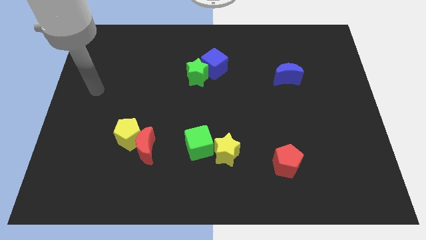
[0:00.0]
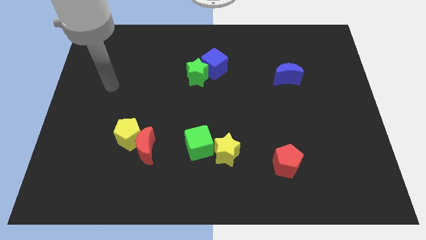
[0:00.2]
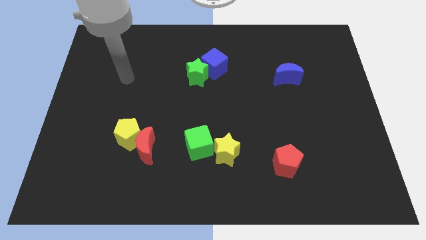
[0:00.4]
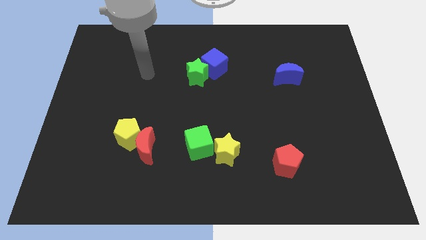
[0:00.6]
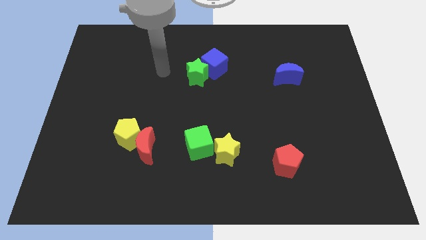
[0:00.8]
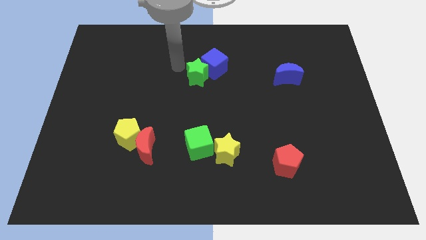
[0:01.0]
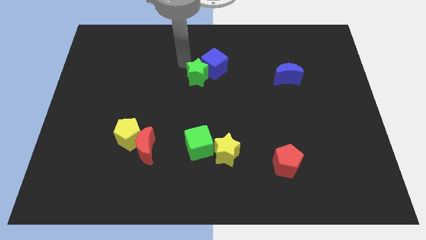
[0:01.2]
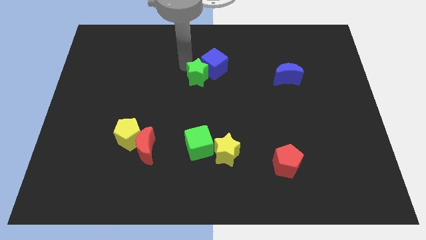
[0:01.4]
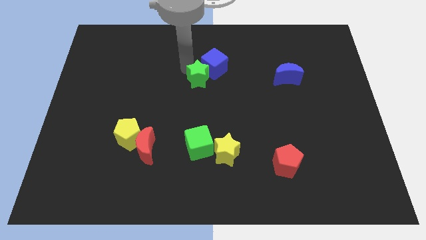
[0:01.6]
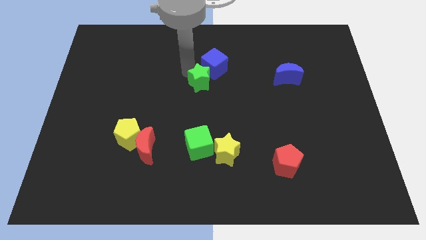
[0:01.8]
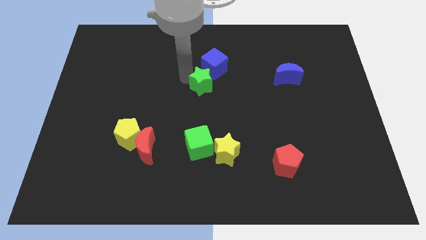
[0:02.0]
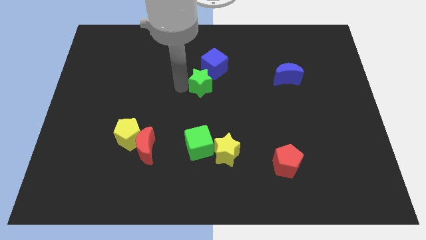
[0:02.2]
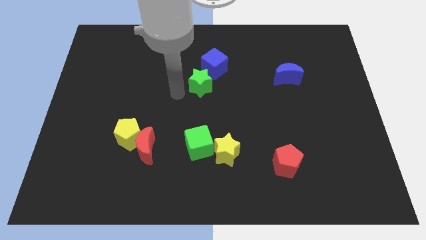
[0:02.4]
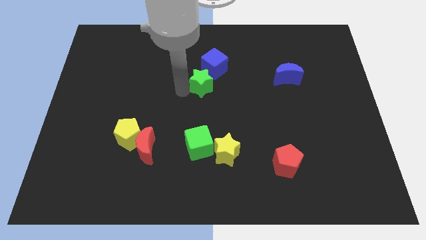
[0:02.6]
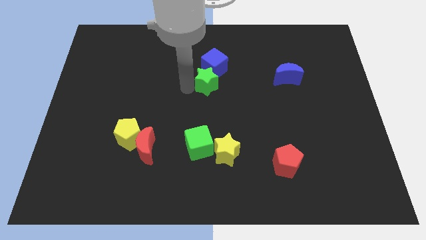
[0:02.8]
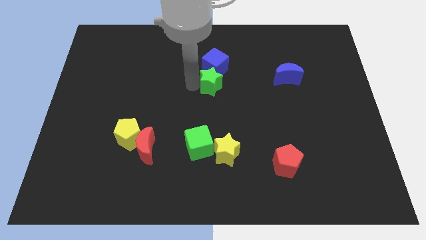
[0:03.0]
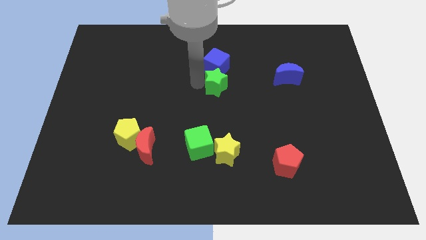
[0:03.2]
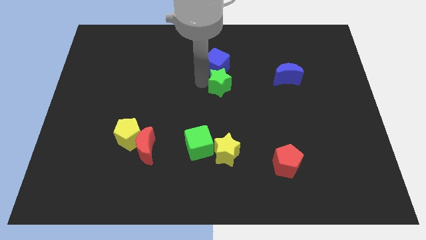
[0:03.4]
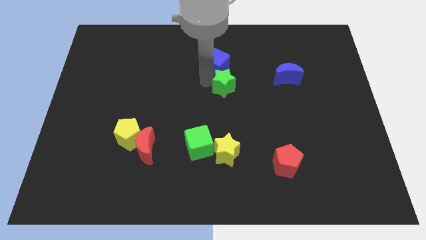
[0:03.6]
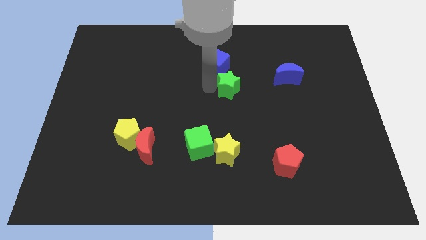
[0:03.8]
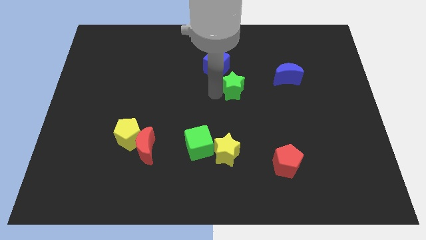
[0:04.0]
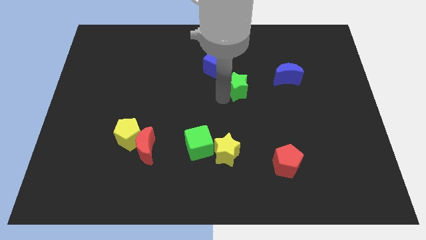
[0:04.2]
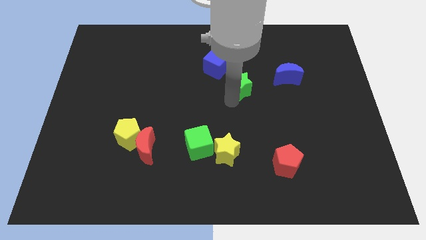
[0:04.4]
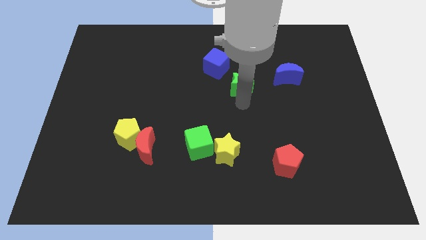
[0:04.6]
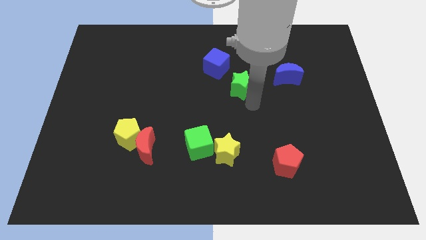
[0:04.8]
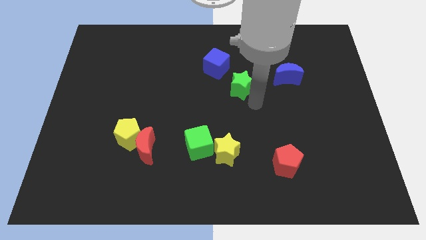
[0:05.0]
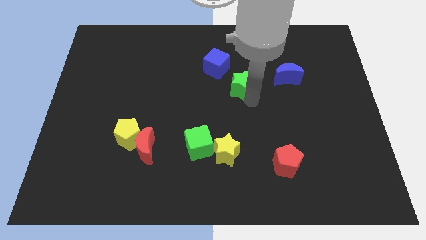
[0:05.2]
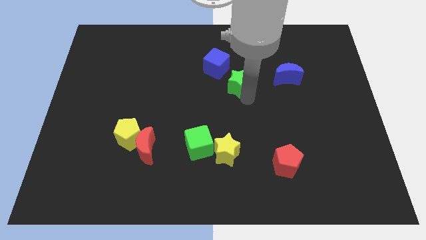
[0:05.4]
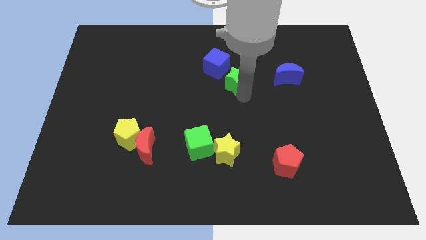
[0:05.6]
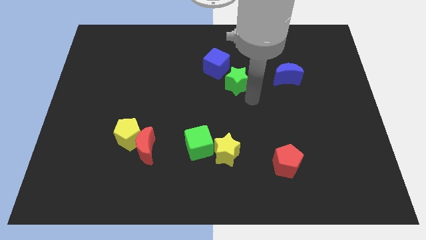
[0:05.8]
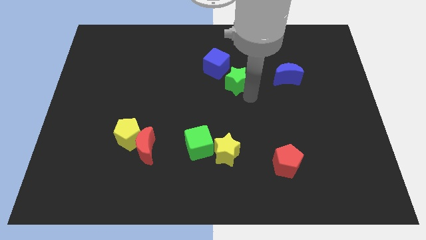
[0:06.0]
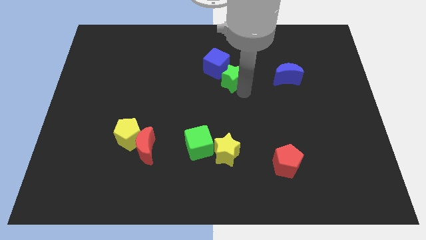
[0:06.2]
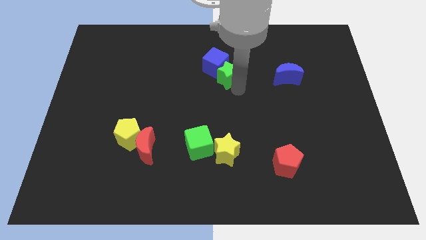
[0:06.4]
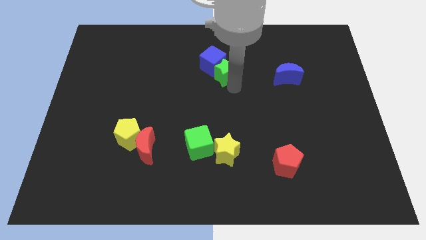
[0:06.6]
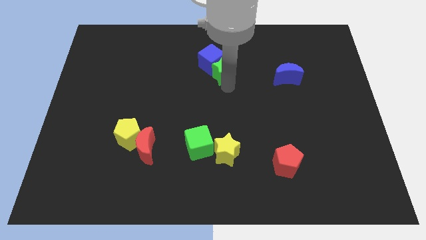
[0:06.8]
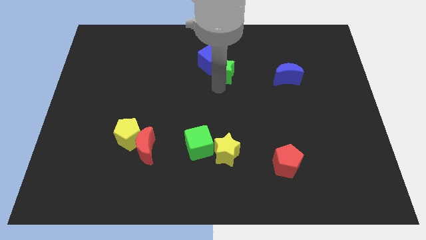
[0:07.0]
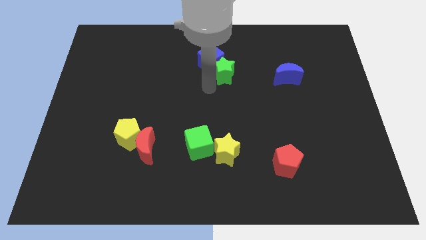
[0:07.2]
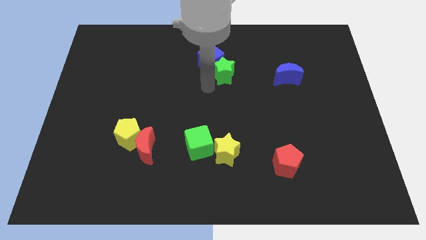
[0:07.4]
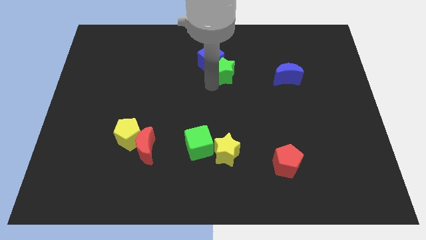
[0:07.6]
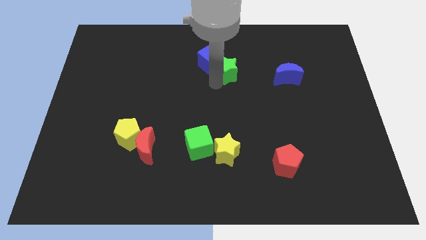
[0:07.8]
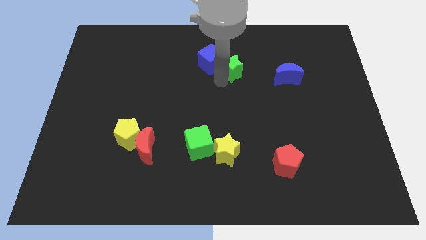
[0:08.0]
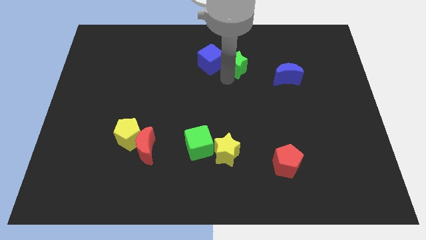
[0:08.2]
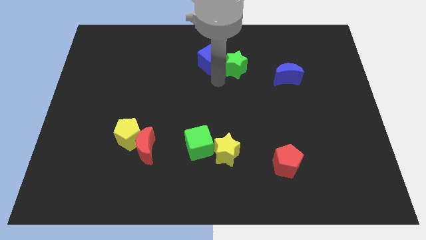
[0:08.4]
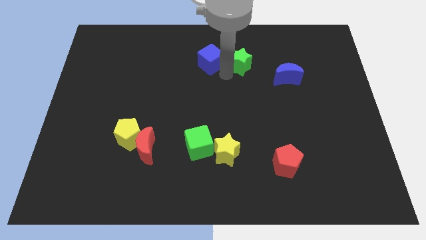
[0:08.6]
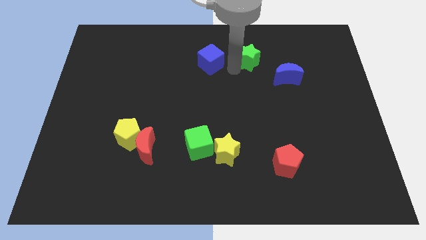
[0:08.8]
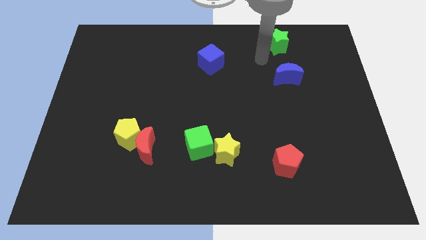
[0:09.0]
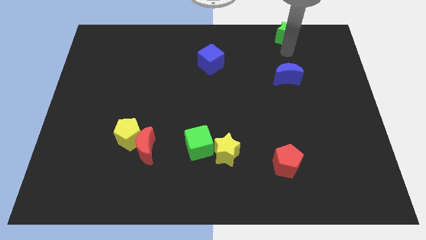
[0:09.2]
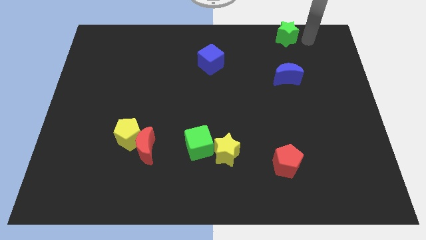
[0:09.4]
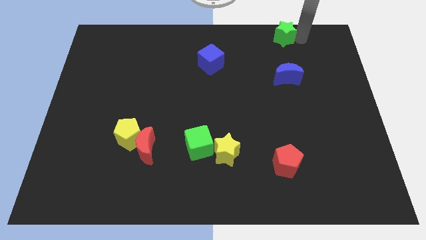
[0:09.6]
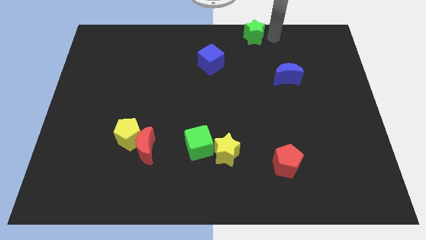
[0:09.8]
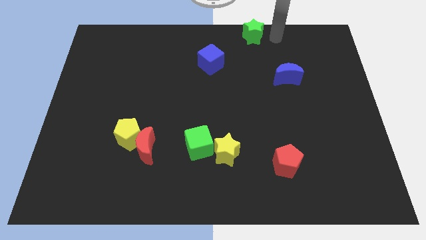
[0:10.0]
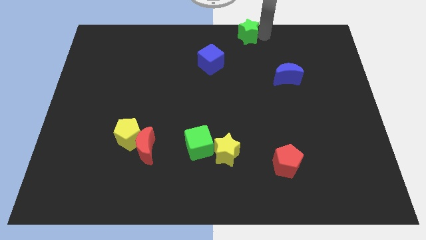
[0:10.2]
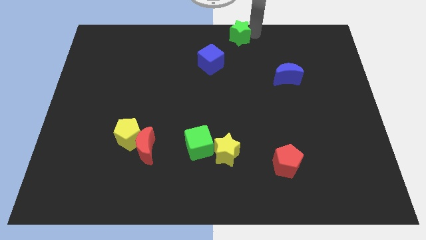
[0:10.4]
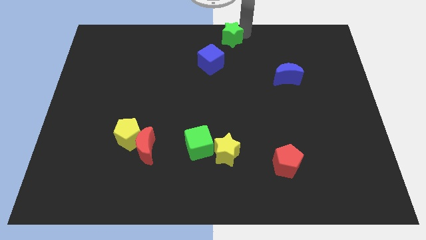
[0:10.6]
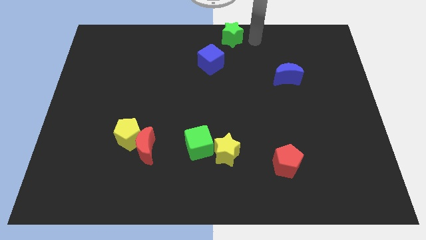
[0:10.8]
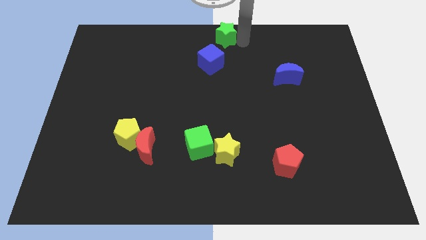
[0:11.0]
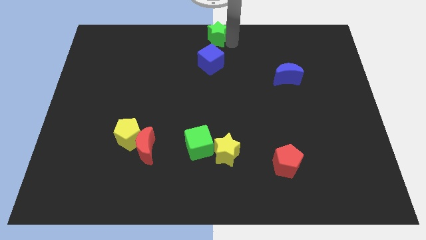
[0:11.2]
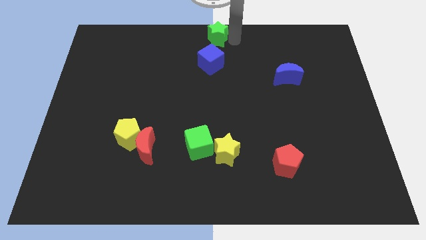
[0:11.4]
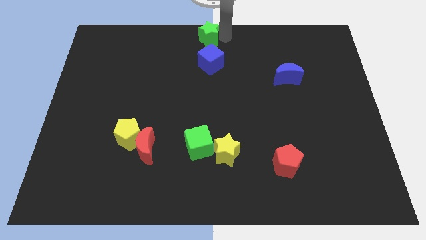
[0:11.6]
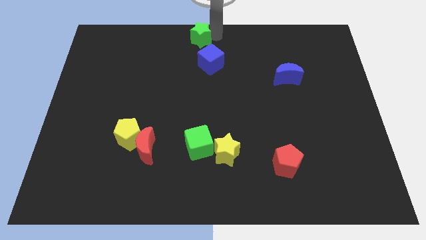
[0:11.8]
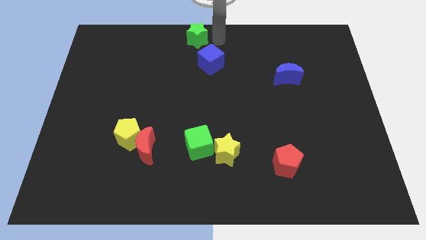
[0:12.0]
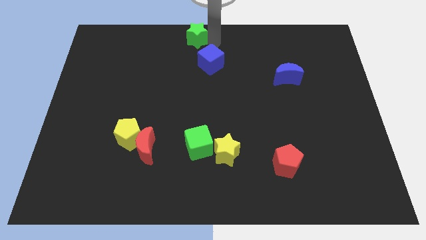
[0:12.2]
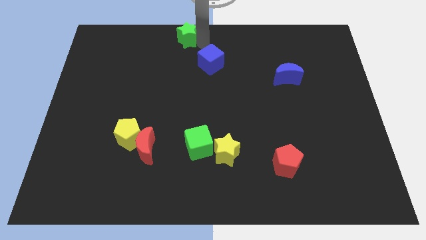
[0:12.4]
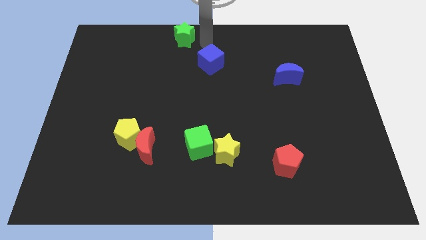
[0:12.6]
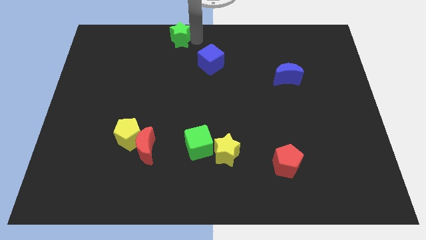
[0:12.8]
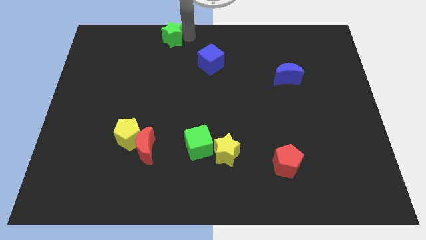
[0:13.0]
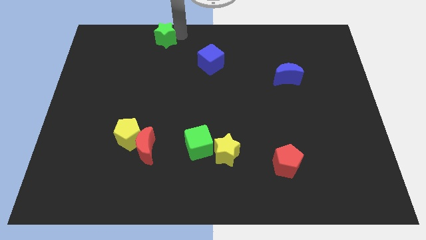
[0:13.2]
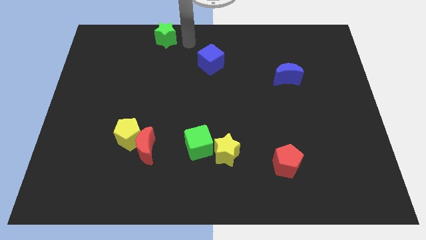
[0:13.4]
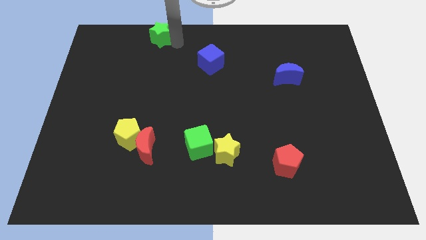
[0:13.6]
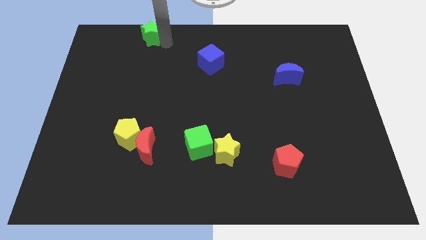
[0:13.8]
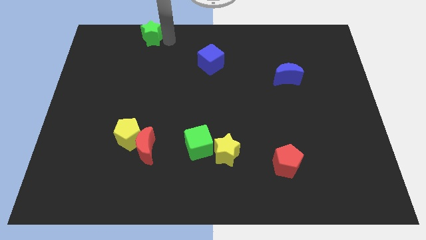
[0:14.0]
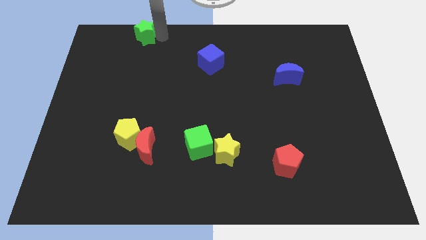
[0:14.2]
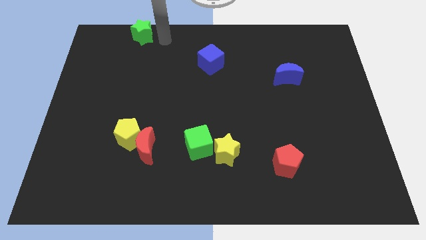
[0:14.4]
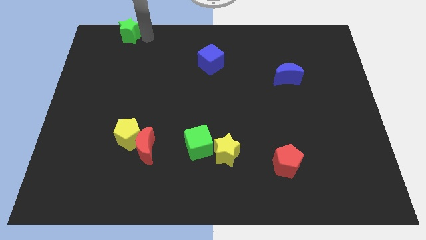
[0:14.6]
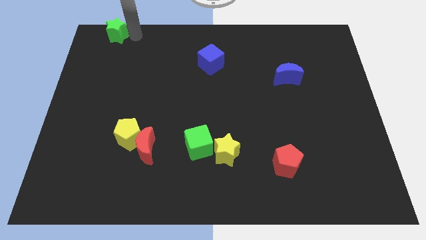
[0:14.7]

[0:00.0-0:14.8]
move the green star to the top left corner

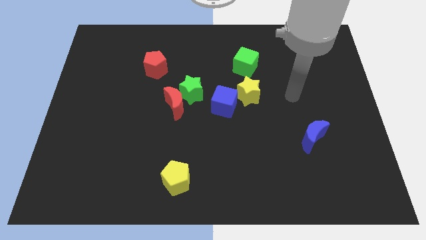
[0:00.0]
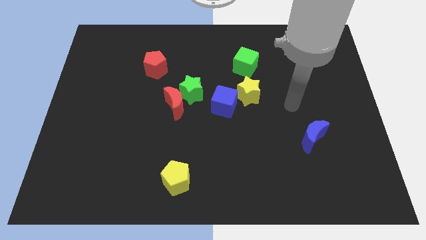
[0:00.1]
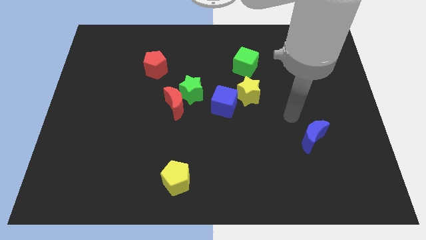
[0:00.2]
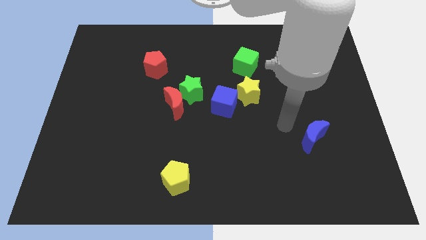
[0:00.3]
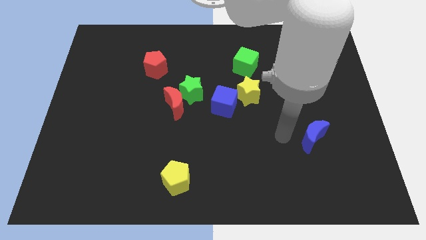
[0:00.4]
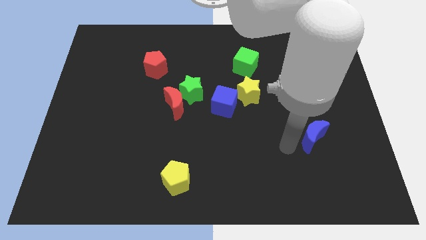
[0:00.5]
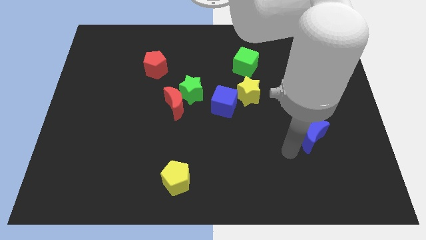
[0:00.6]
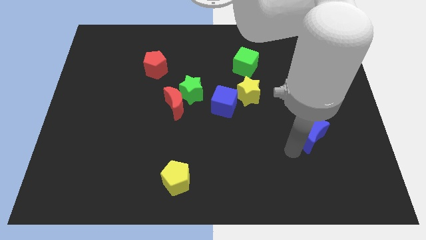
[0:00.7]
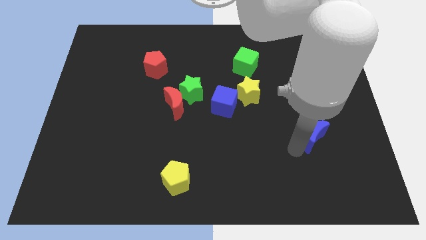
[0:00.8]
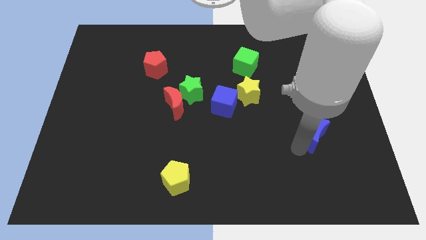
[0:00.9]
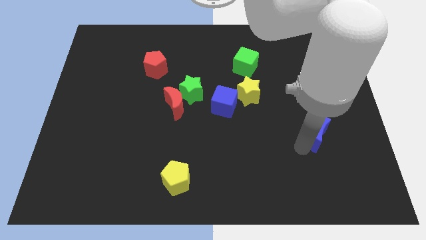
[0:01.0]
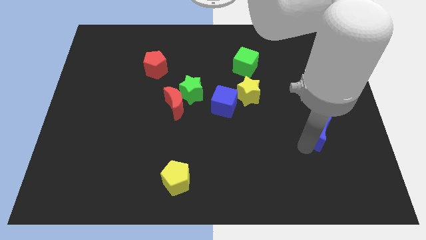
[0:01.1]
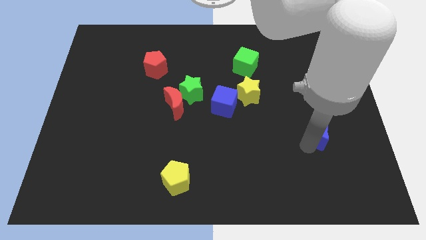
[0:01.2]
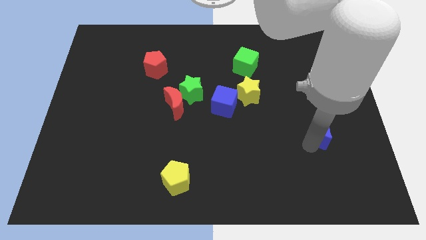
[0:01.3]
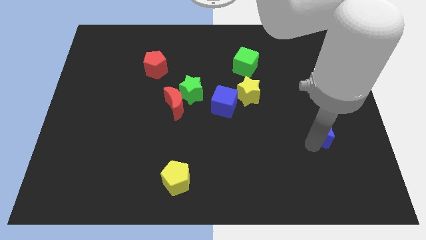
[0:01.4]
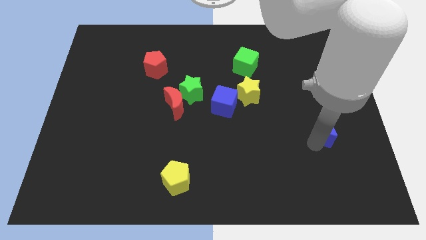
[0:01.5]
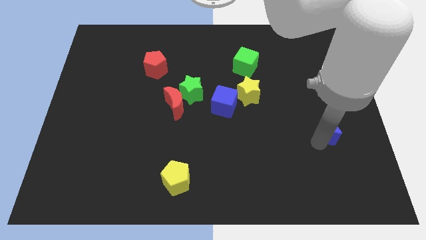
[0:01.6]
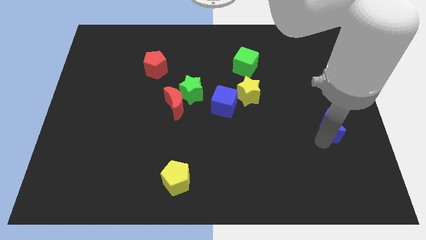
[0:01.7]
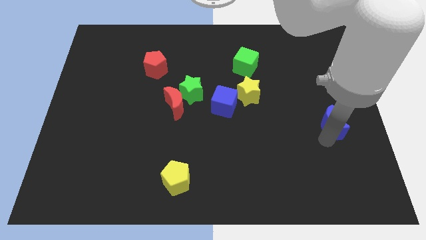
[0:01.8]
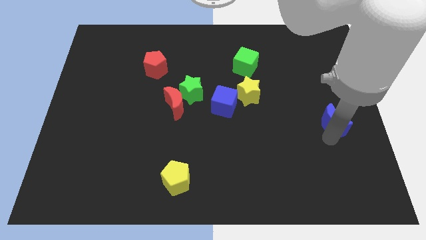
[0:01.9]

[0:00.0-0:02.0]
put the blue moon to the right side
